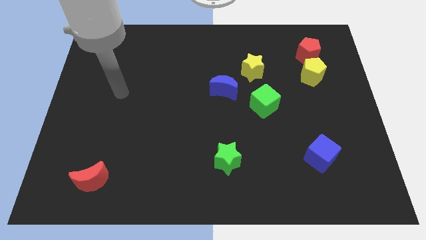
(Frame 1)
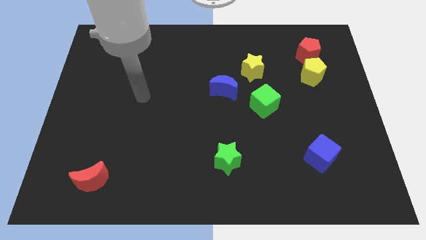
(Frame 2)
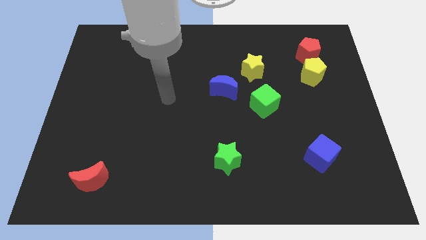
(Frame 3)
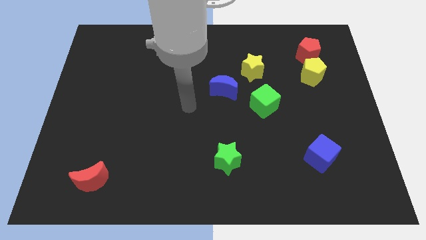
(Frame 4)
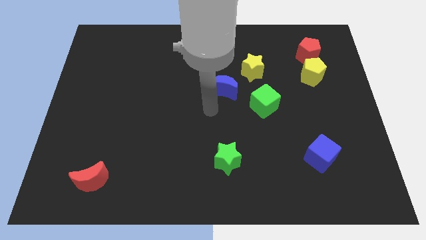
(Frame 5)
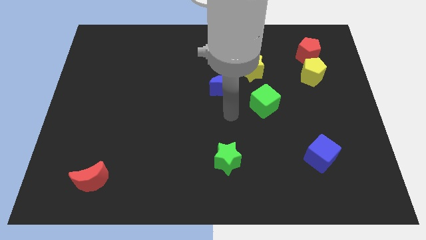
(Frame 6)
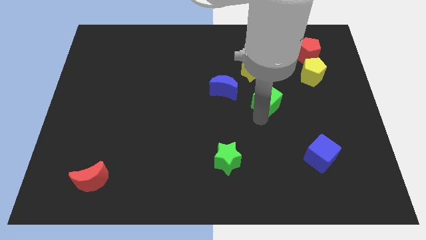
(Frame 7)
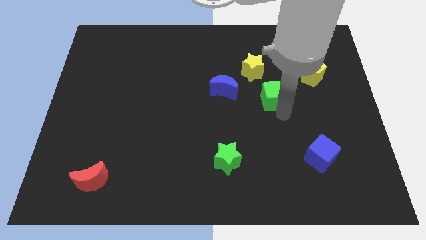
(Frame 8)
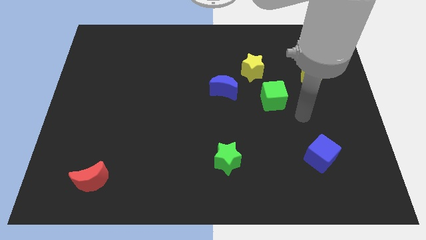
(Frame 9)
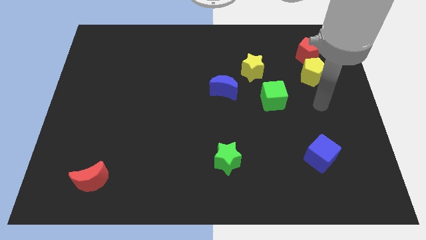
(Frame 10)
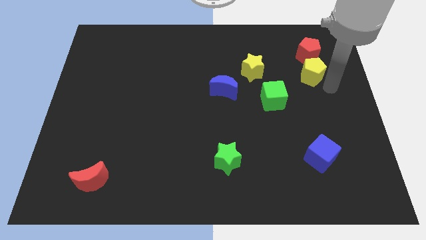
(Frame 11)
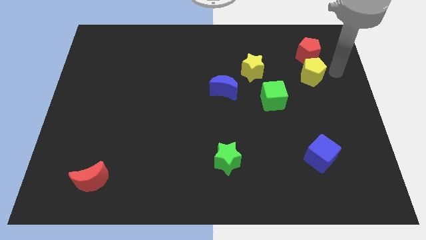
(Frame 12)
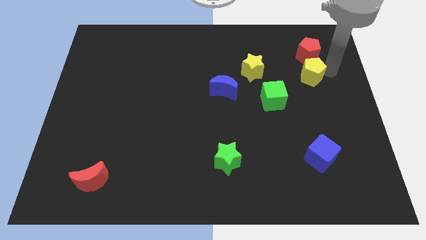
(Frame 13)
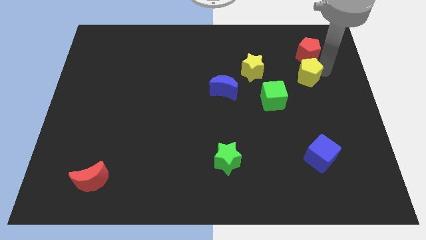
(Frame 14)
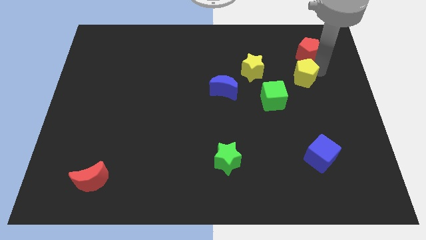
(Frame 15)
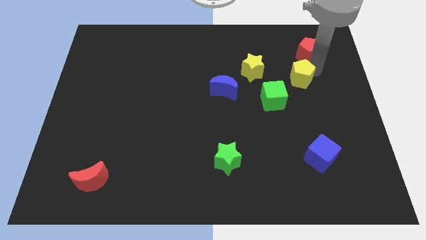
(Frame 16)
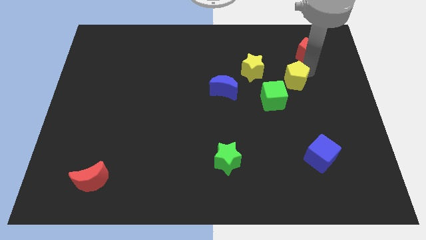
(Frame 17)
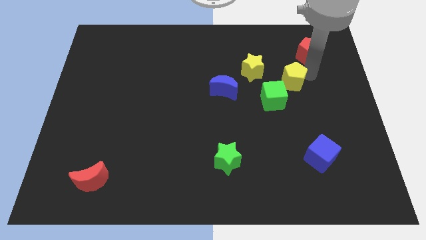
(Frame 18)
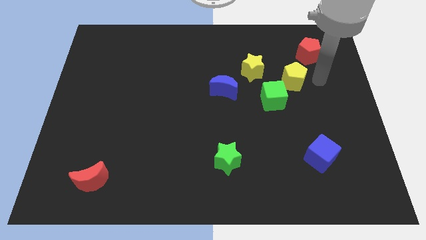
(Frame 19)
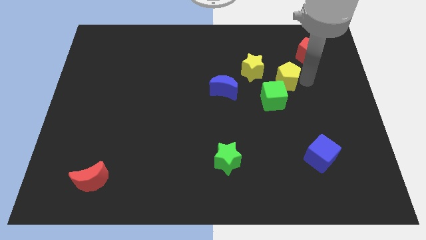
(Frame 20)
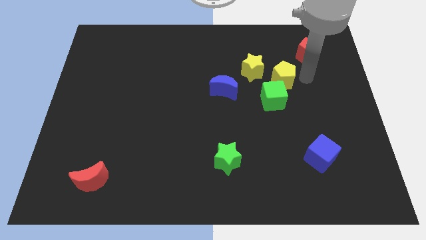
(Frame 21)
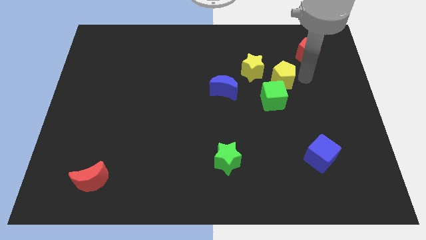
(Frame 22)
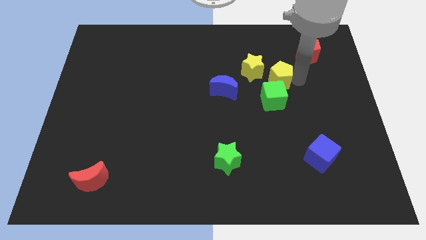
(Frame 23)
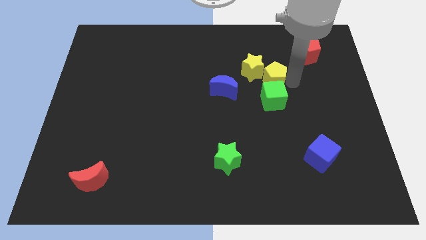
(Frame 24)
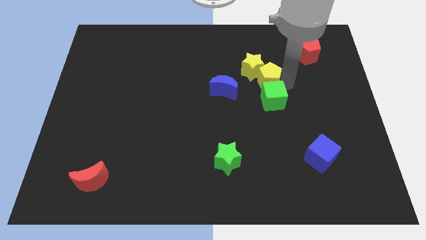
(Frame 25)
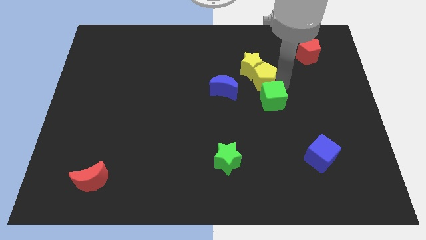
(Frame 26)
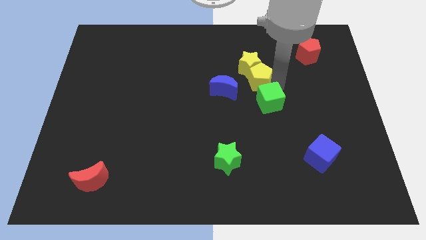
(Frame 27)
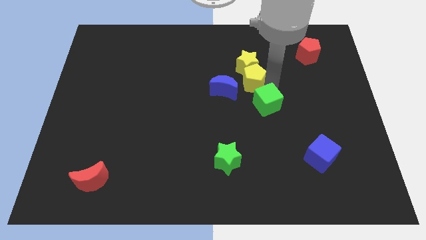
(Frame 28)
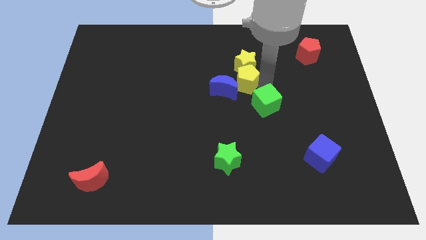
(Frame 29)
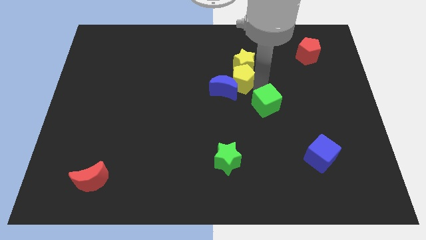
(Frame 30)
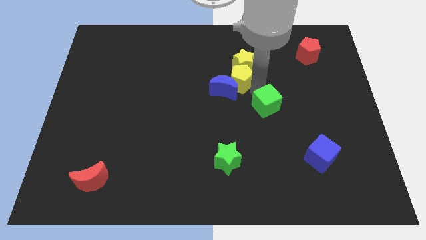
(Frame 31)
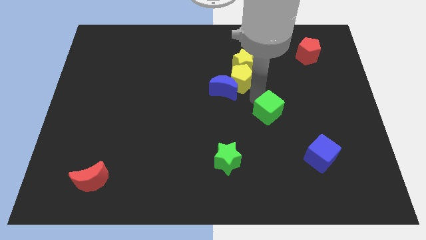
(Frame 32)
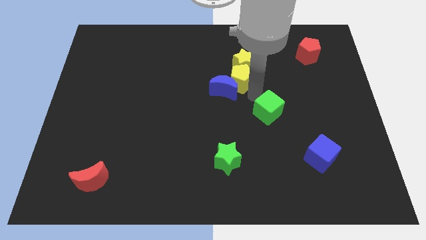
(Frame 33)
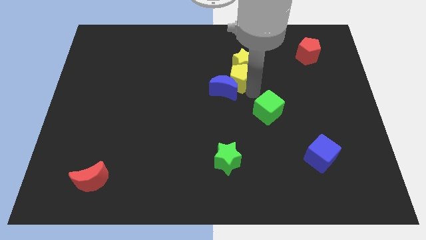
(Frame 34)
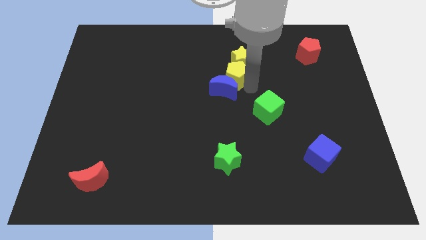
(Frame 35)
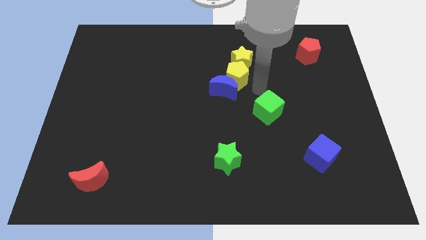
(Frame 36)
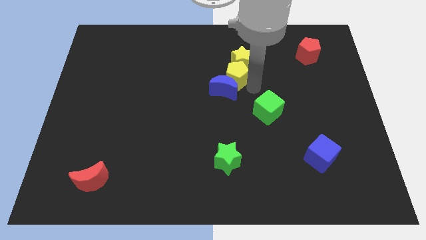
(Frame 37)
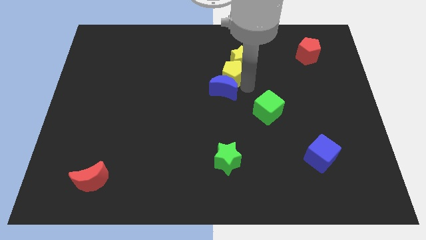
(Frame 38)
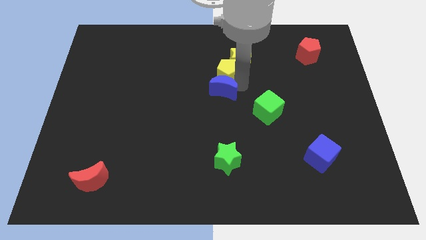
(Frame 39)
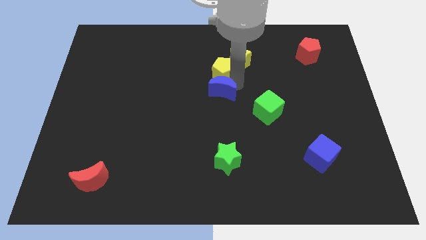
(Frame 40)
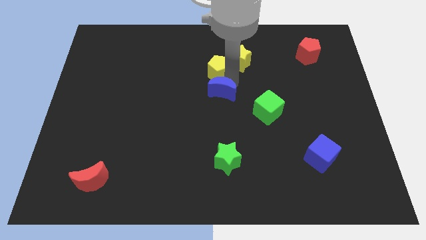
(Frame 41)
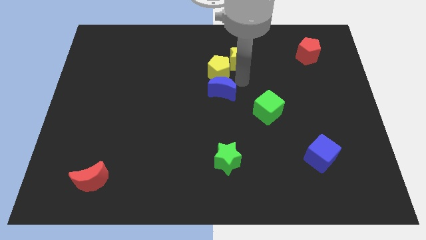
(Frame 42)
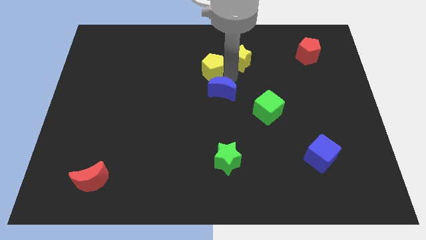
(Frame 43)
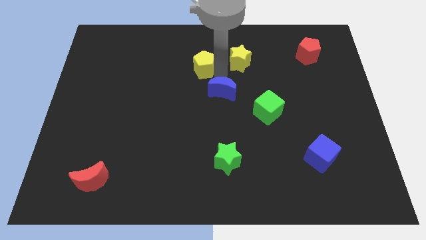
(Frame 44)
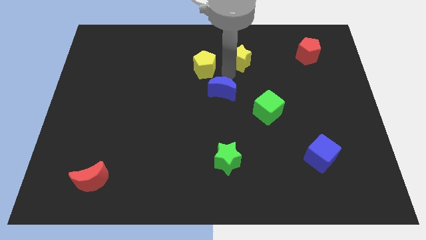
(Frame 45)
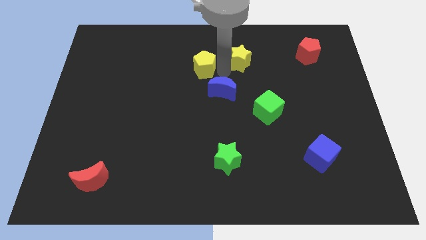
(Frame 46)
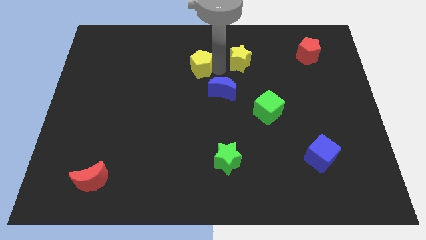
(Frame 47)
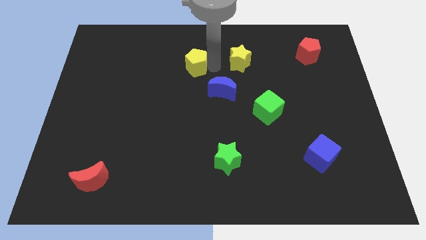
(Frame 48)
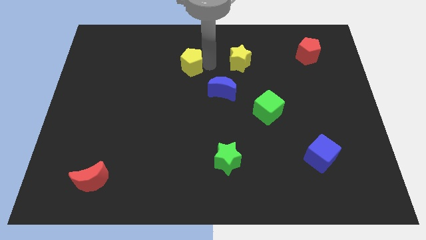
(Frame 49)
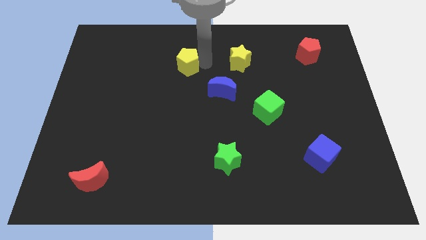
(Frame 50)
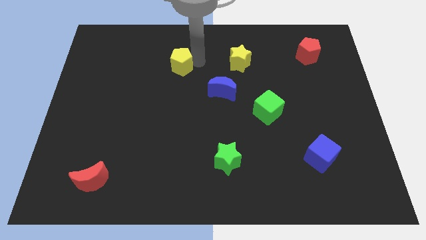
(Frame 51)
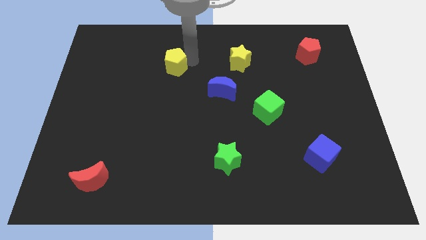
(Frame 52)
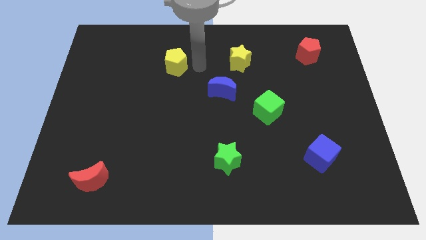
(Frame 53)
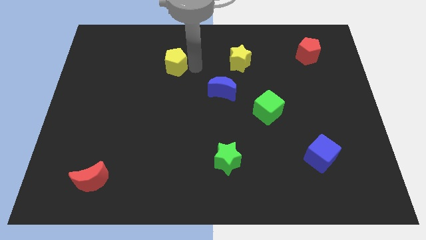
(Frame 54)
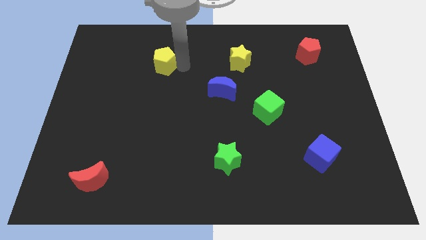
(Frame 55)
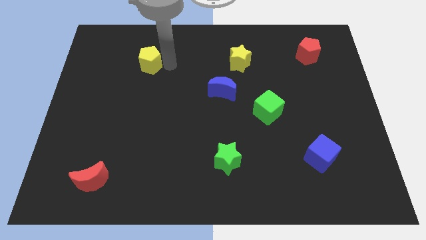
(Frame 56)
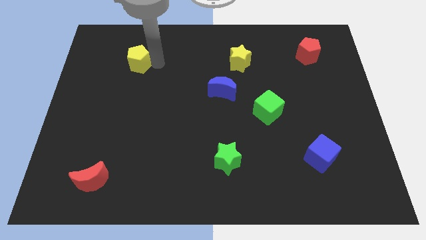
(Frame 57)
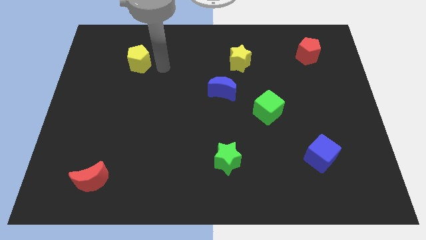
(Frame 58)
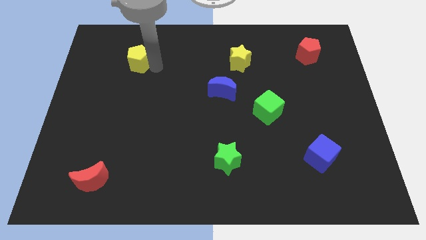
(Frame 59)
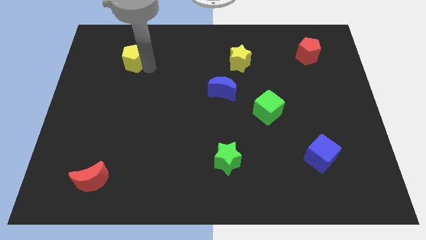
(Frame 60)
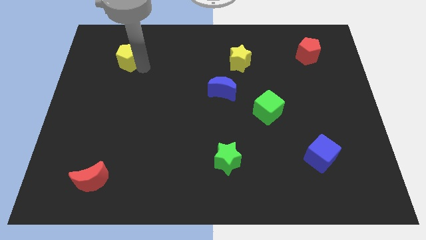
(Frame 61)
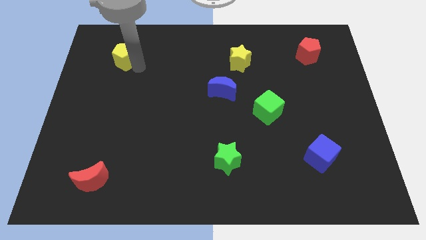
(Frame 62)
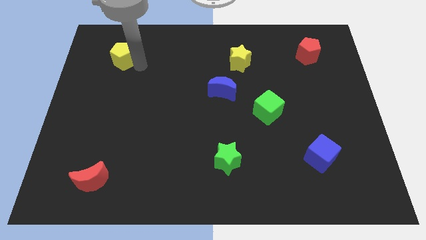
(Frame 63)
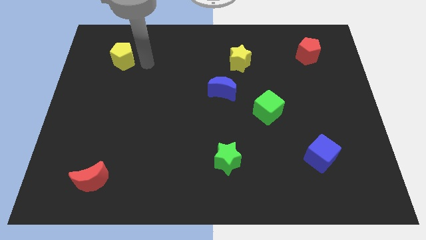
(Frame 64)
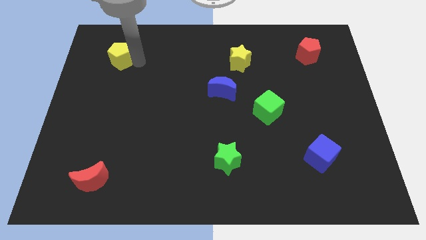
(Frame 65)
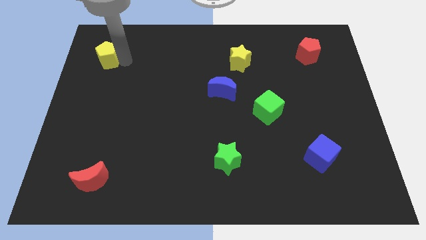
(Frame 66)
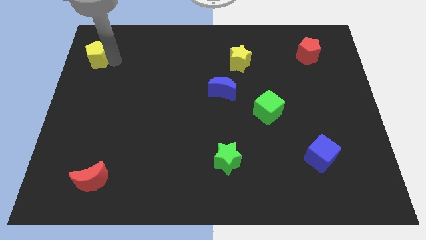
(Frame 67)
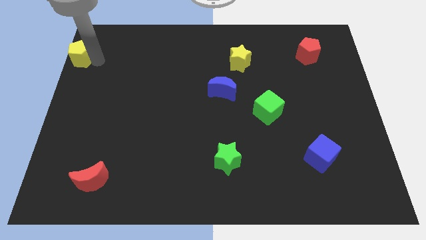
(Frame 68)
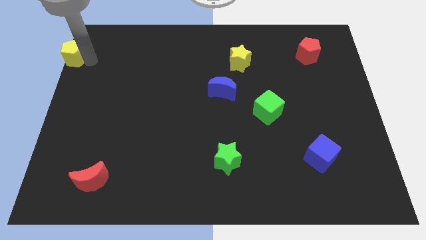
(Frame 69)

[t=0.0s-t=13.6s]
move the yellow pentagon to the top left

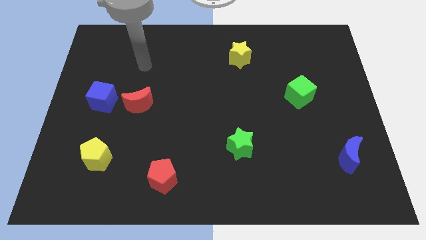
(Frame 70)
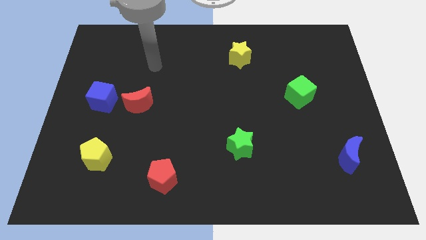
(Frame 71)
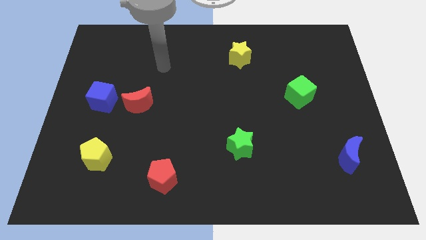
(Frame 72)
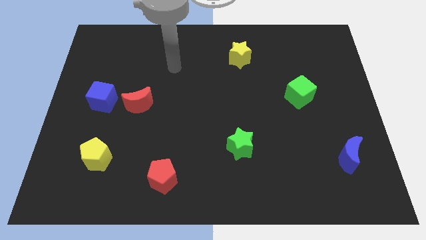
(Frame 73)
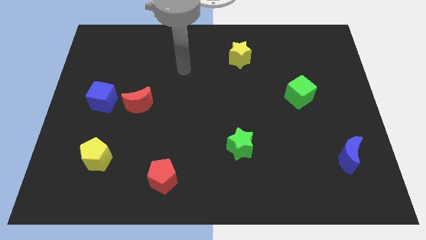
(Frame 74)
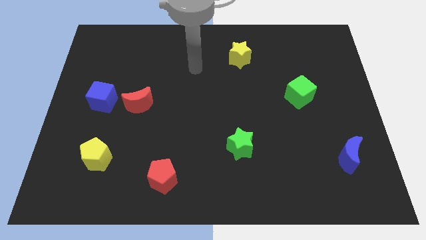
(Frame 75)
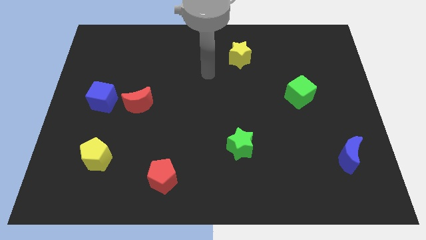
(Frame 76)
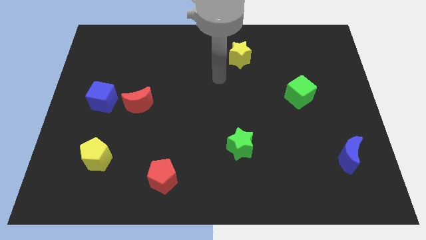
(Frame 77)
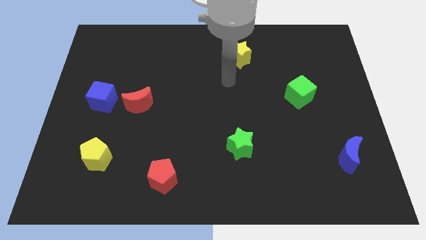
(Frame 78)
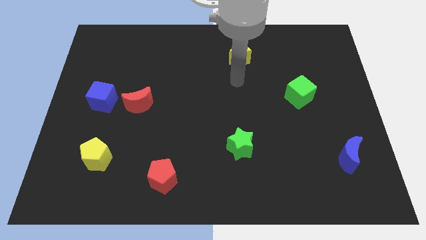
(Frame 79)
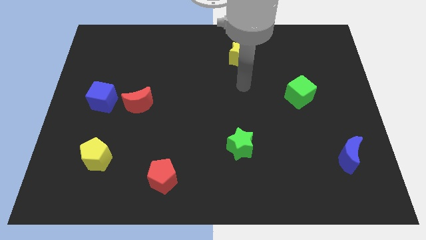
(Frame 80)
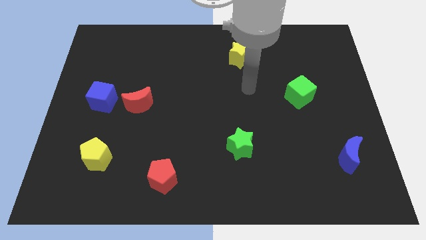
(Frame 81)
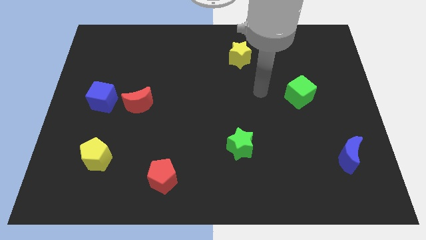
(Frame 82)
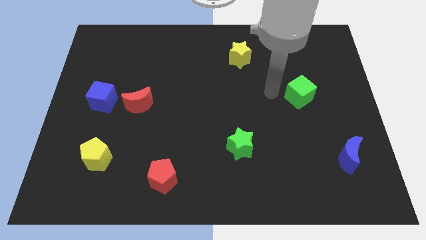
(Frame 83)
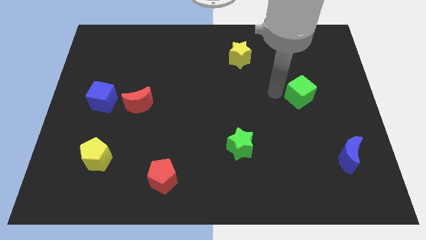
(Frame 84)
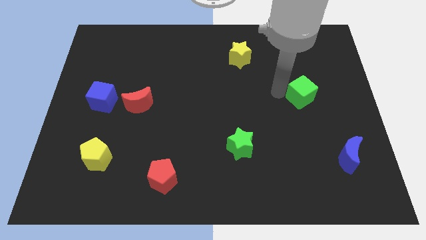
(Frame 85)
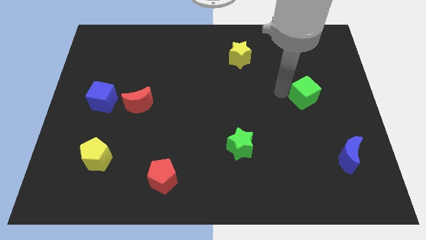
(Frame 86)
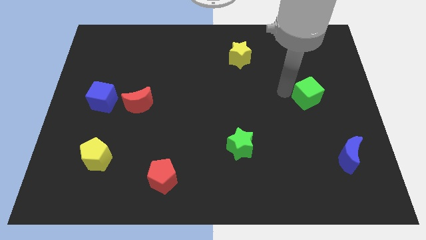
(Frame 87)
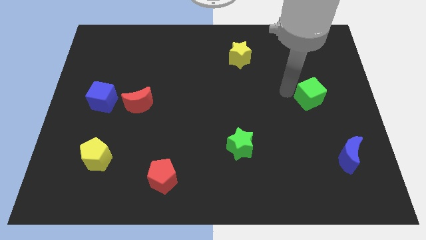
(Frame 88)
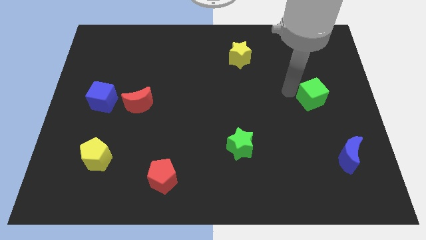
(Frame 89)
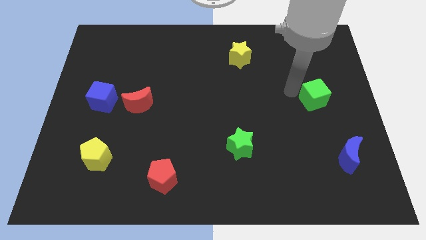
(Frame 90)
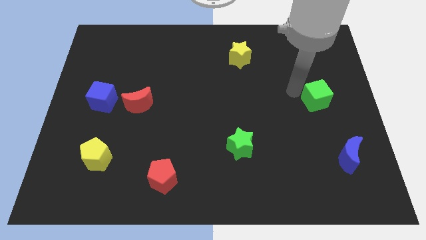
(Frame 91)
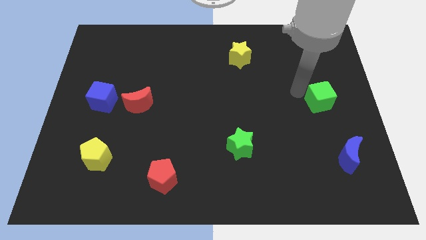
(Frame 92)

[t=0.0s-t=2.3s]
move the green cube to the right side of the board
